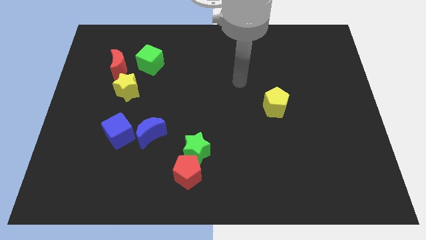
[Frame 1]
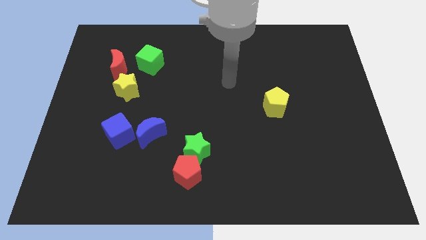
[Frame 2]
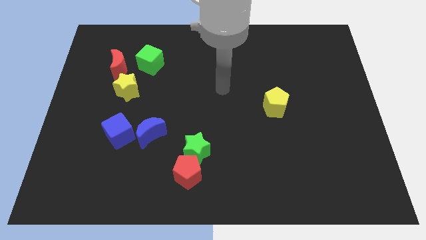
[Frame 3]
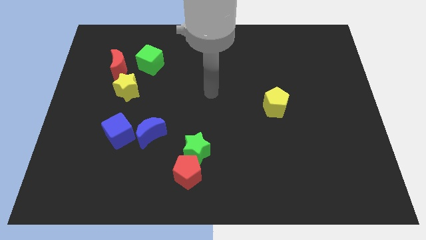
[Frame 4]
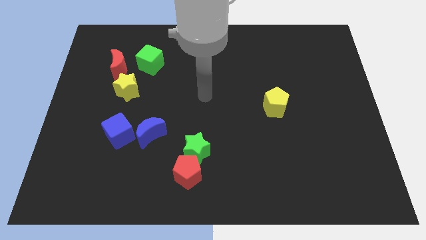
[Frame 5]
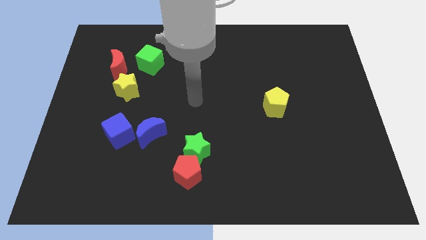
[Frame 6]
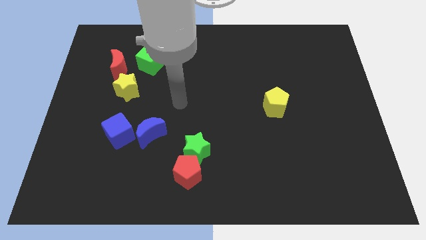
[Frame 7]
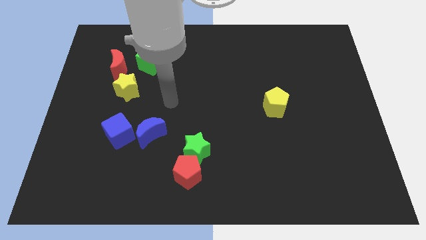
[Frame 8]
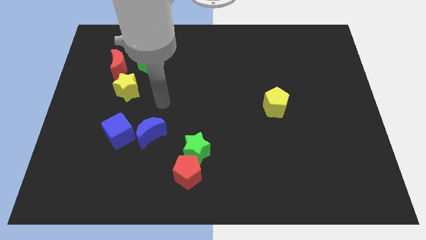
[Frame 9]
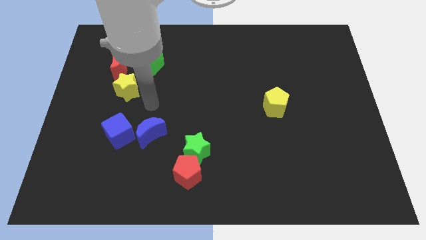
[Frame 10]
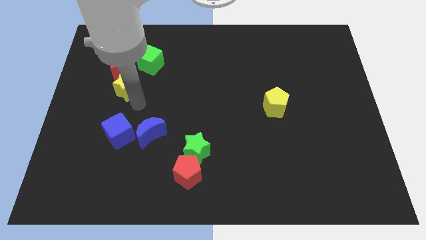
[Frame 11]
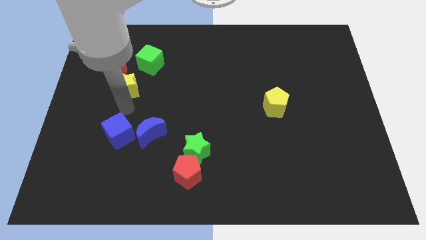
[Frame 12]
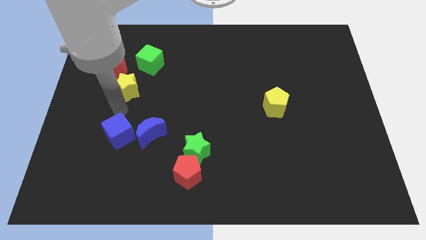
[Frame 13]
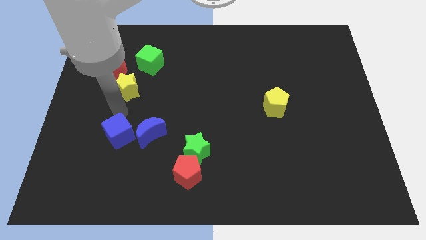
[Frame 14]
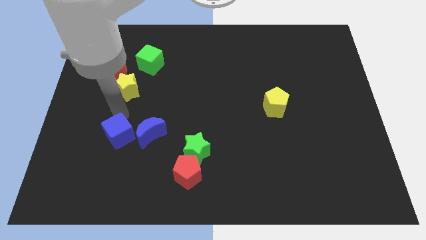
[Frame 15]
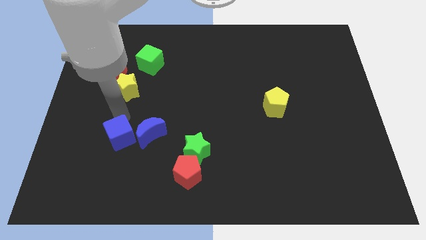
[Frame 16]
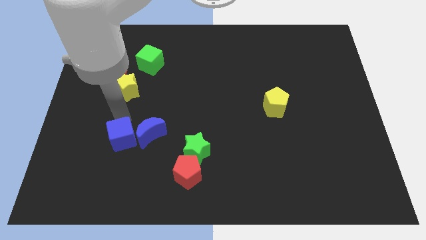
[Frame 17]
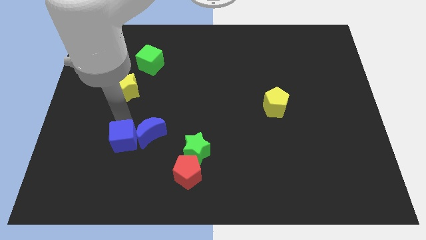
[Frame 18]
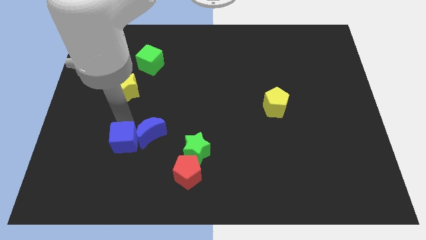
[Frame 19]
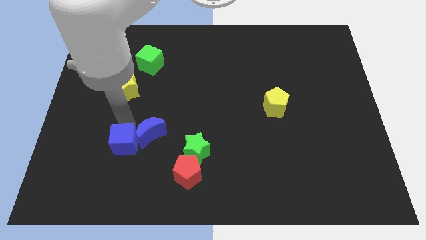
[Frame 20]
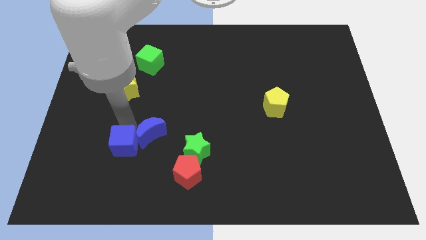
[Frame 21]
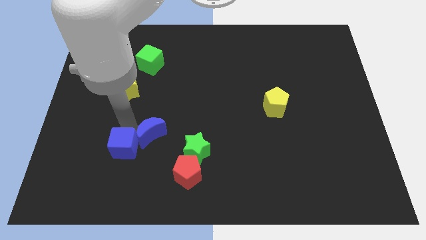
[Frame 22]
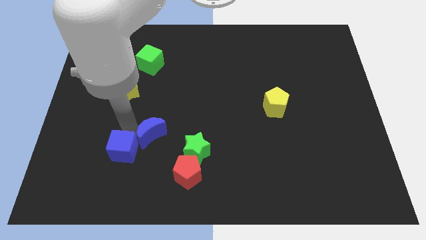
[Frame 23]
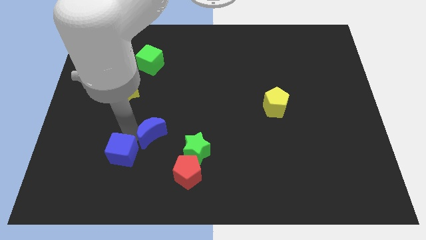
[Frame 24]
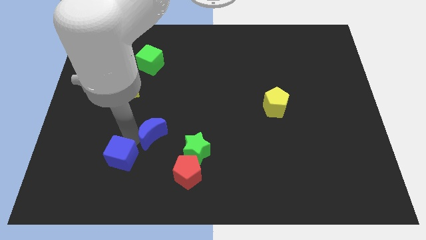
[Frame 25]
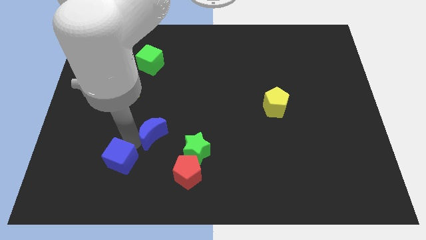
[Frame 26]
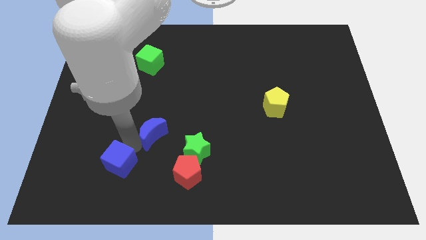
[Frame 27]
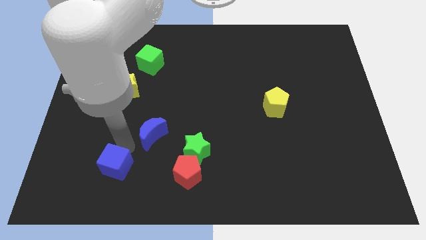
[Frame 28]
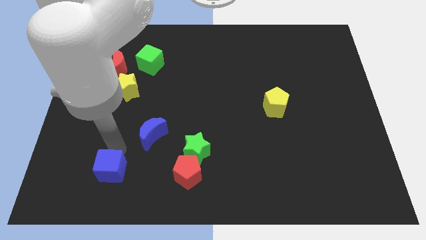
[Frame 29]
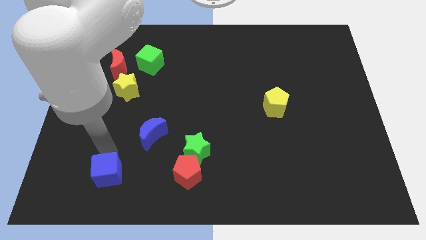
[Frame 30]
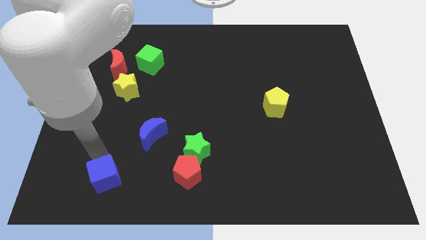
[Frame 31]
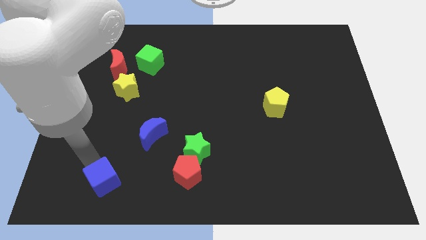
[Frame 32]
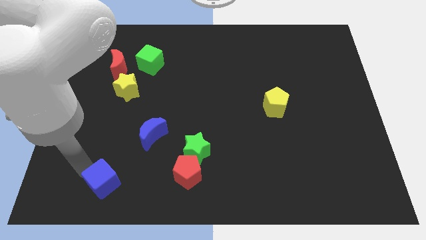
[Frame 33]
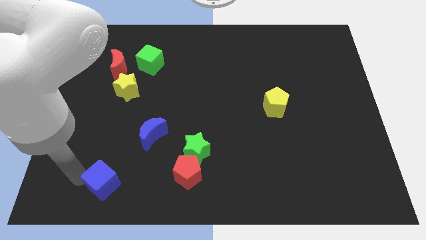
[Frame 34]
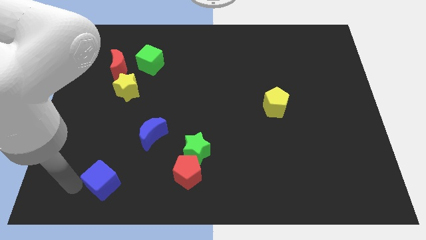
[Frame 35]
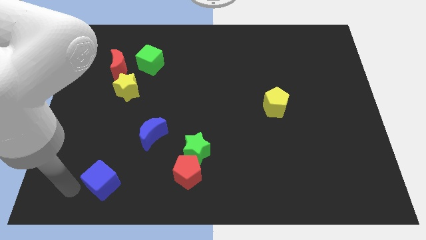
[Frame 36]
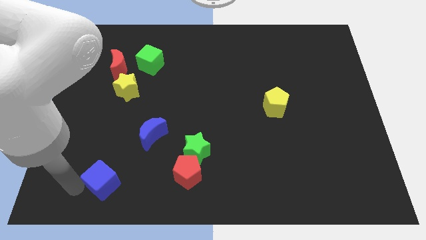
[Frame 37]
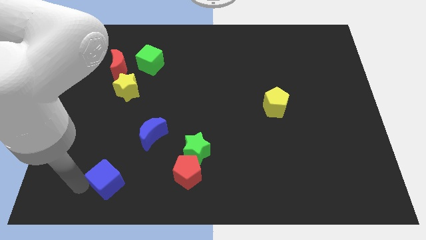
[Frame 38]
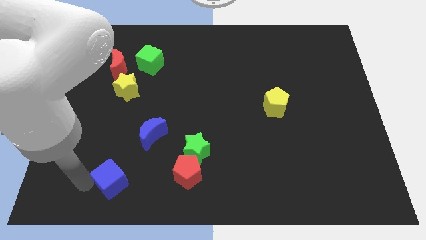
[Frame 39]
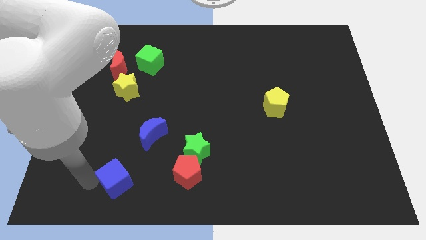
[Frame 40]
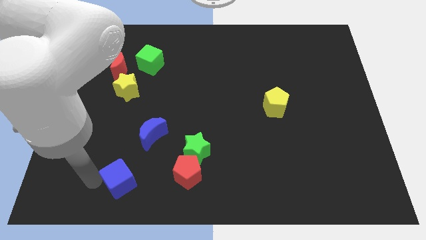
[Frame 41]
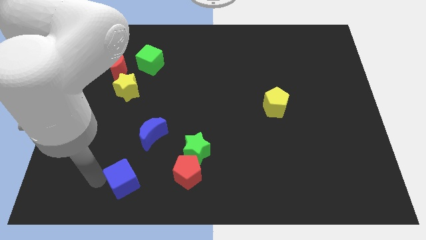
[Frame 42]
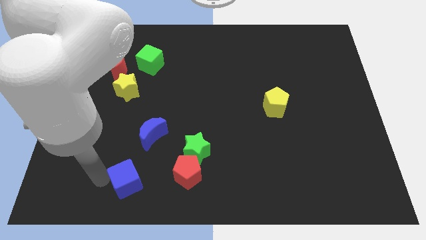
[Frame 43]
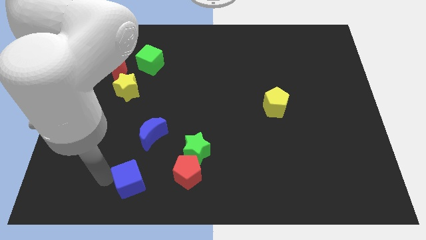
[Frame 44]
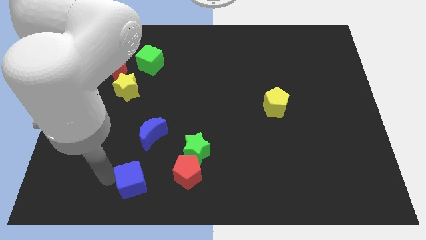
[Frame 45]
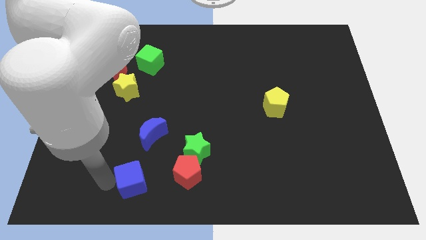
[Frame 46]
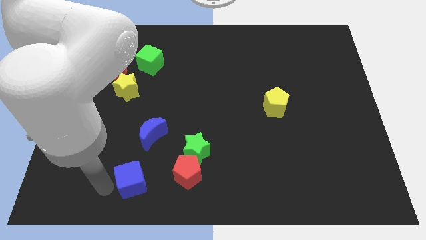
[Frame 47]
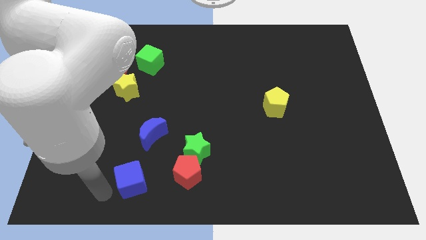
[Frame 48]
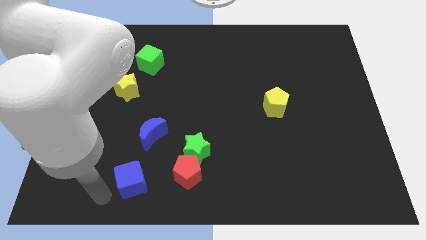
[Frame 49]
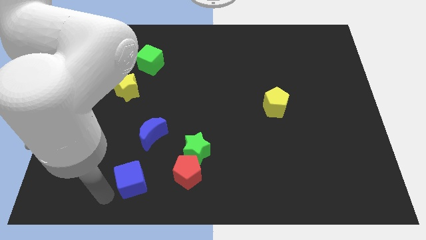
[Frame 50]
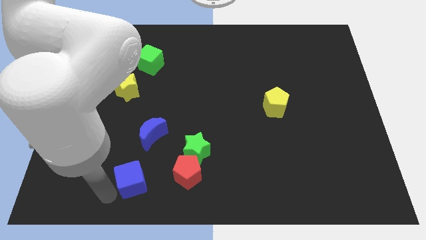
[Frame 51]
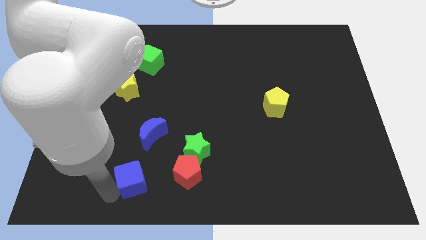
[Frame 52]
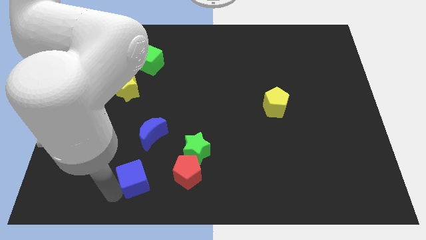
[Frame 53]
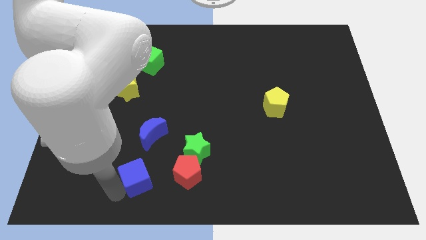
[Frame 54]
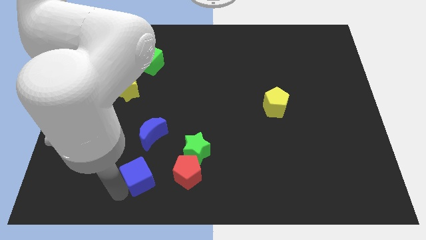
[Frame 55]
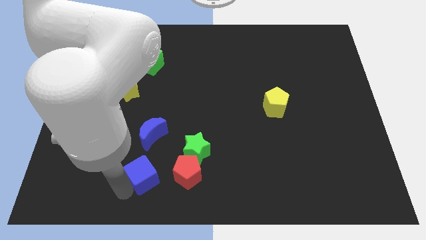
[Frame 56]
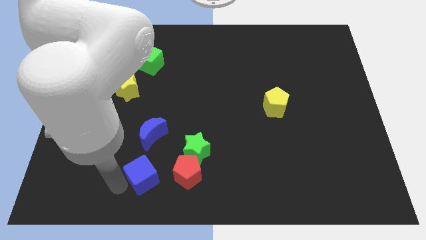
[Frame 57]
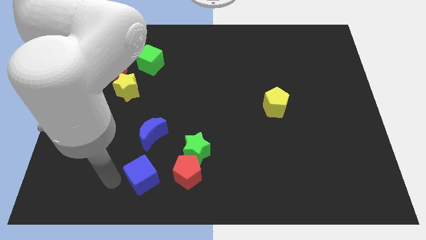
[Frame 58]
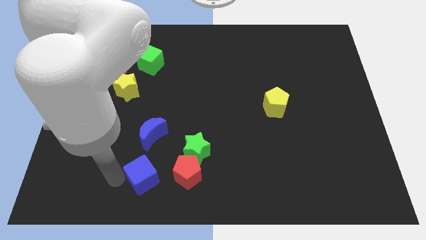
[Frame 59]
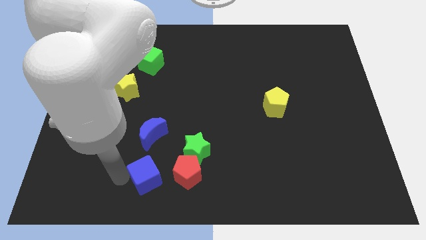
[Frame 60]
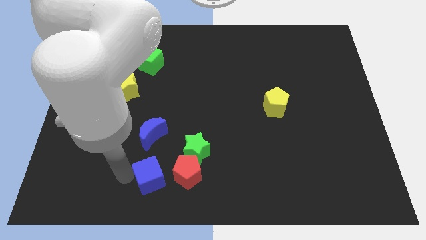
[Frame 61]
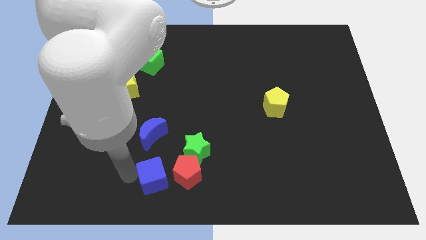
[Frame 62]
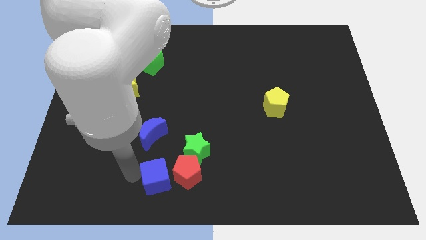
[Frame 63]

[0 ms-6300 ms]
put the blue cube towards the red pentagon

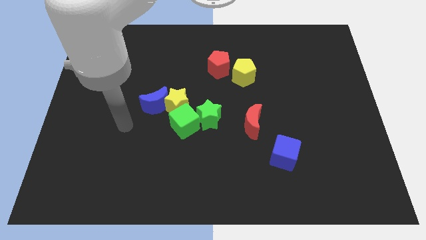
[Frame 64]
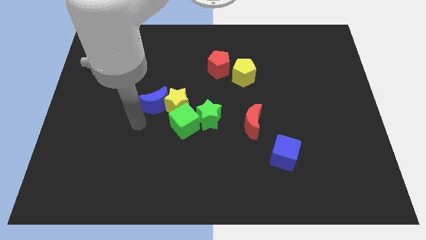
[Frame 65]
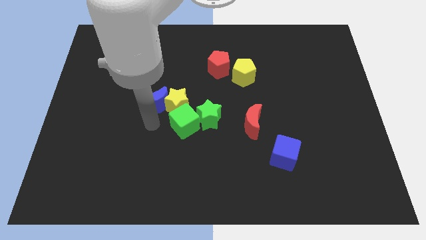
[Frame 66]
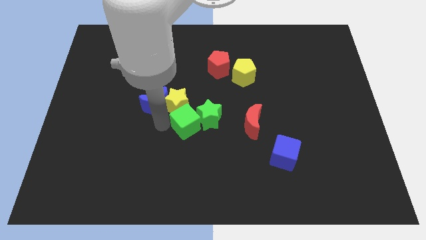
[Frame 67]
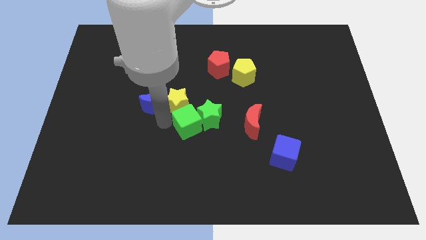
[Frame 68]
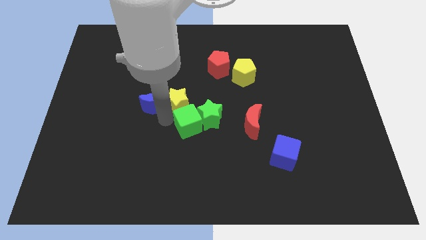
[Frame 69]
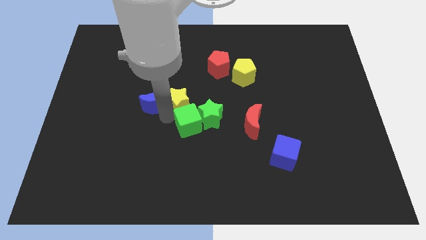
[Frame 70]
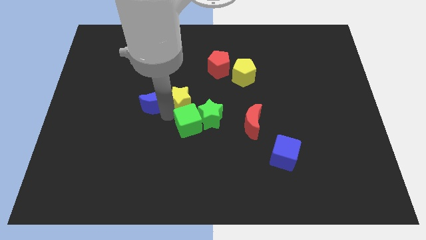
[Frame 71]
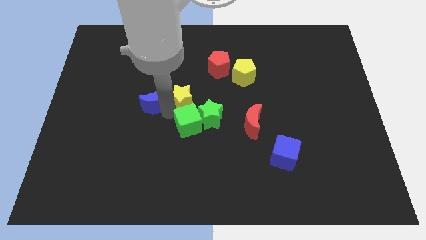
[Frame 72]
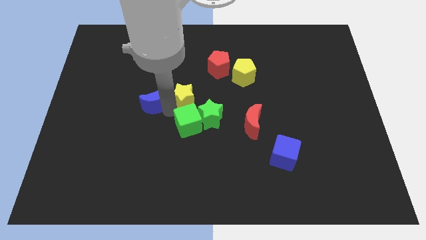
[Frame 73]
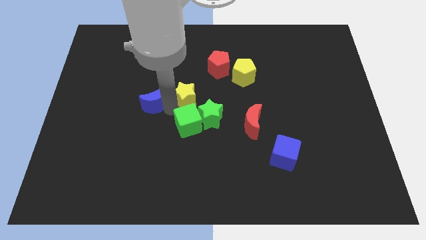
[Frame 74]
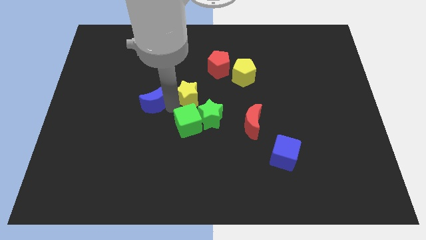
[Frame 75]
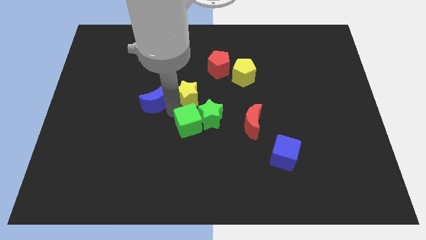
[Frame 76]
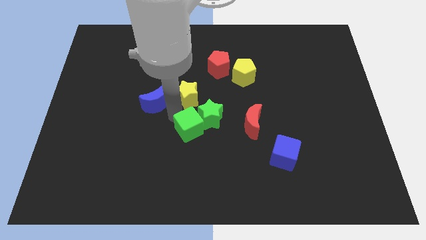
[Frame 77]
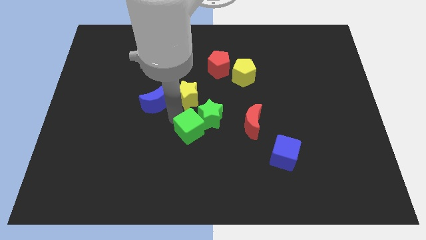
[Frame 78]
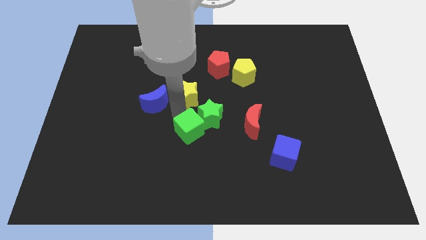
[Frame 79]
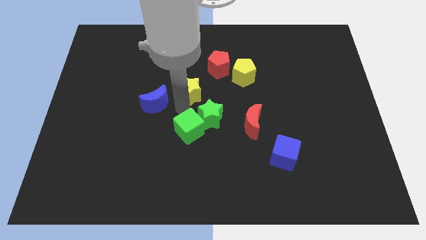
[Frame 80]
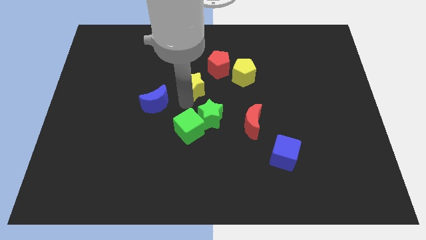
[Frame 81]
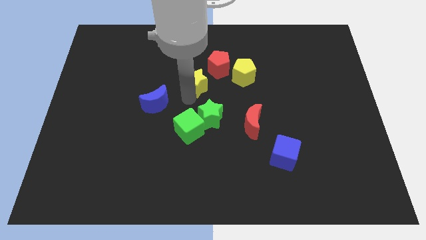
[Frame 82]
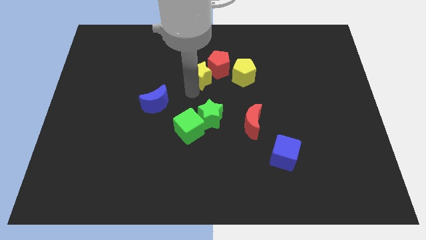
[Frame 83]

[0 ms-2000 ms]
move the yellow star next to the red pentagon
